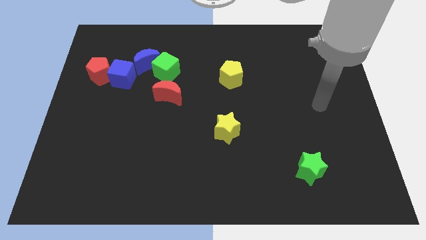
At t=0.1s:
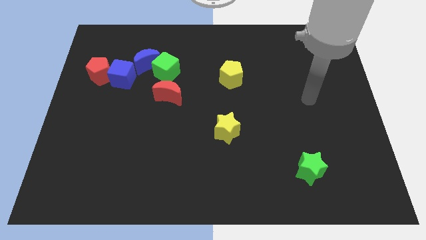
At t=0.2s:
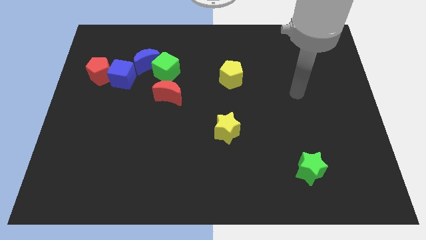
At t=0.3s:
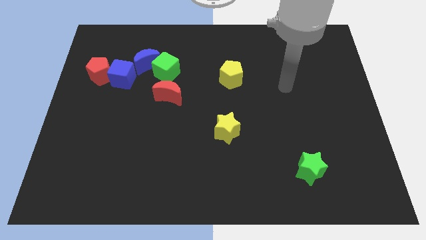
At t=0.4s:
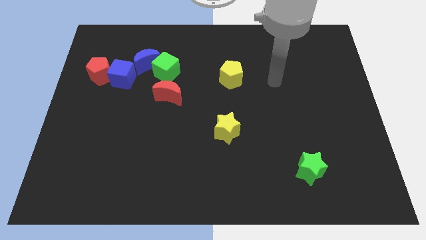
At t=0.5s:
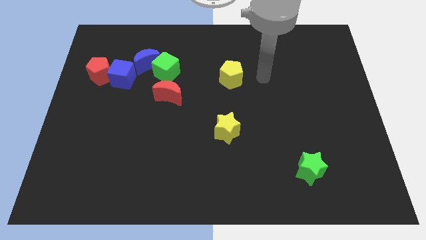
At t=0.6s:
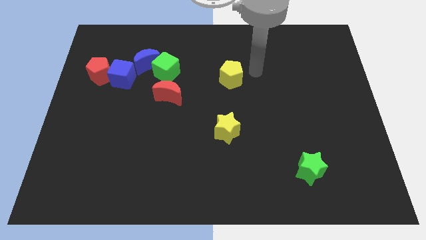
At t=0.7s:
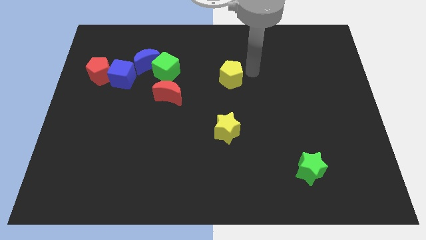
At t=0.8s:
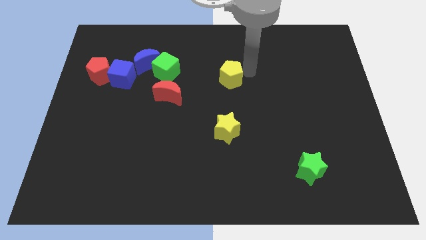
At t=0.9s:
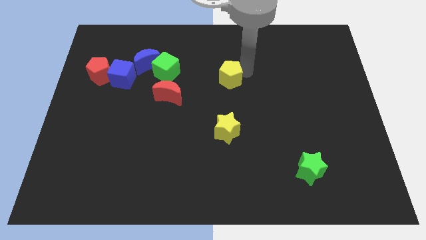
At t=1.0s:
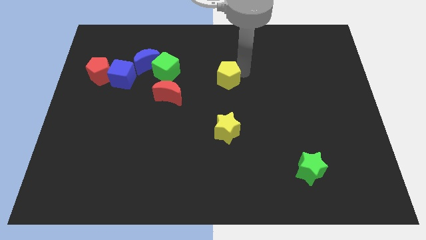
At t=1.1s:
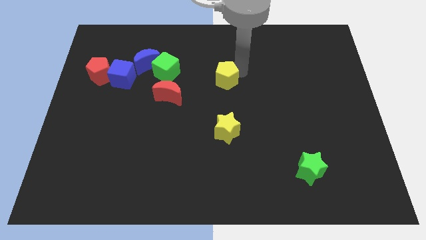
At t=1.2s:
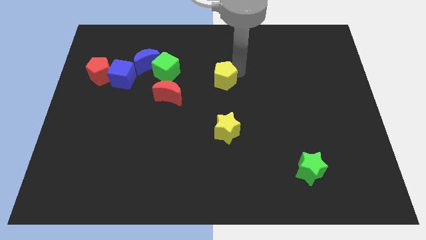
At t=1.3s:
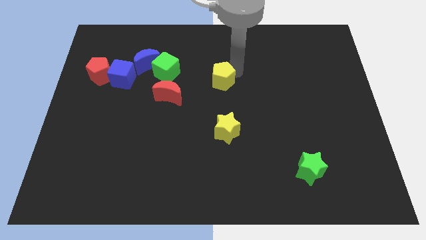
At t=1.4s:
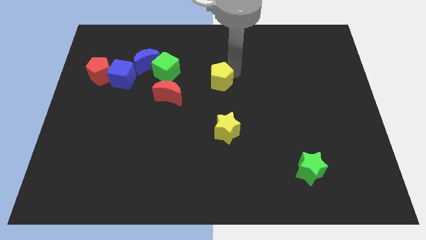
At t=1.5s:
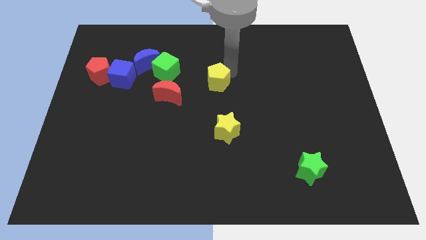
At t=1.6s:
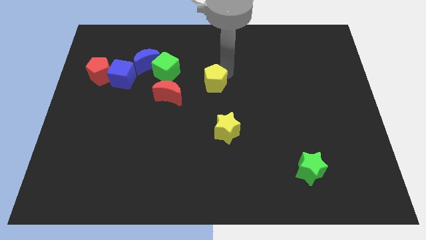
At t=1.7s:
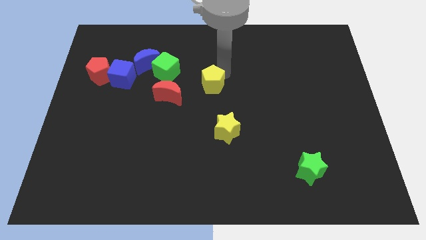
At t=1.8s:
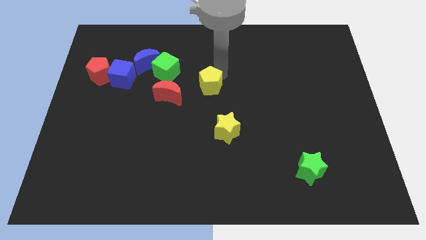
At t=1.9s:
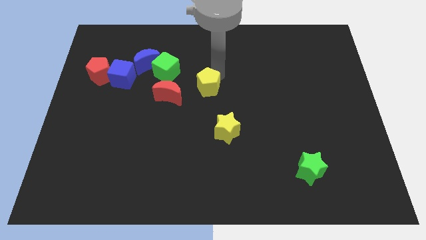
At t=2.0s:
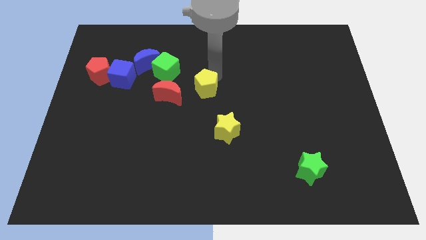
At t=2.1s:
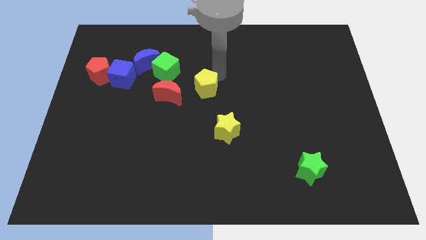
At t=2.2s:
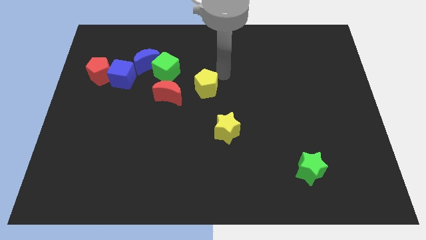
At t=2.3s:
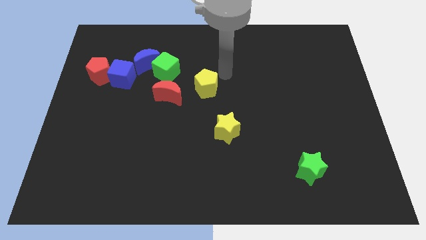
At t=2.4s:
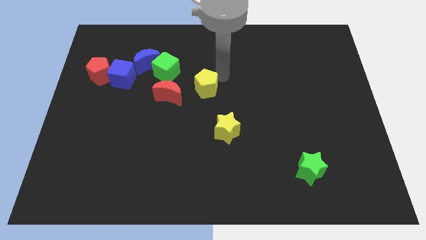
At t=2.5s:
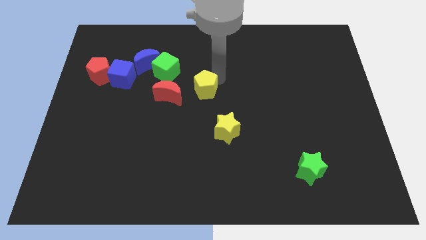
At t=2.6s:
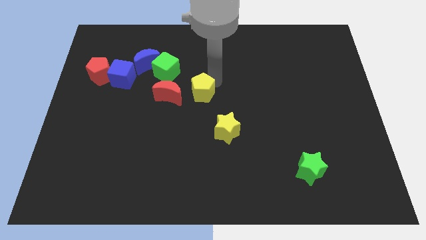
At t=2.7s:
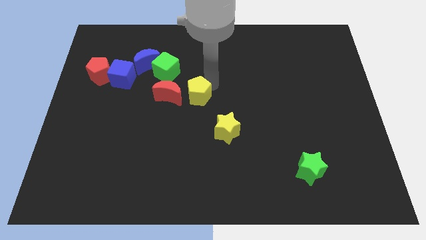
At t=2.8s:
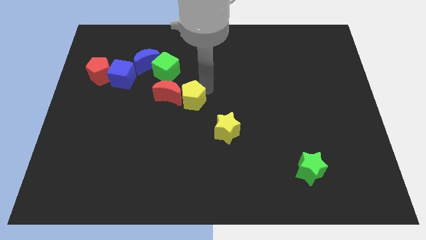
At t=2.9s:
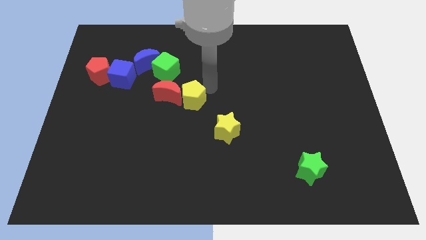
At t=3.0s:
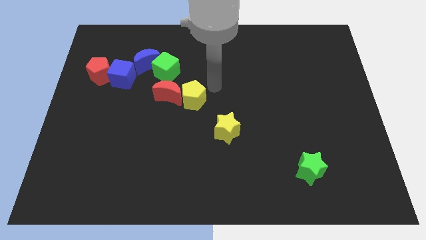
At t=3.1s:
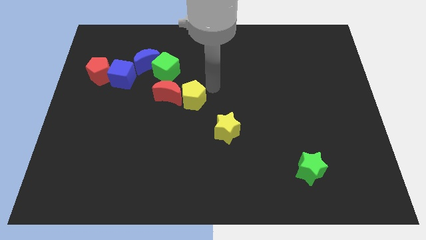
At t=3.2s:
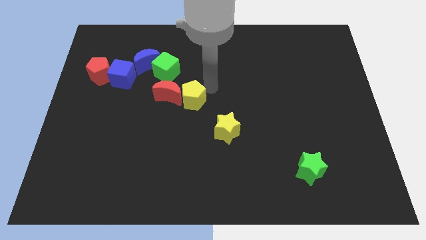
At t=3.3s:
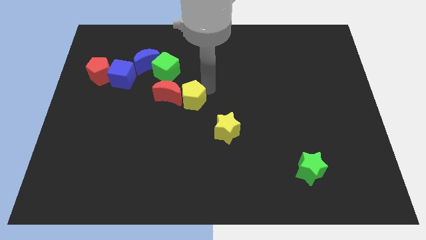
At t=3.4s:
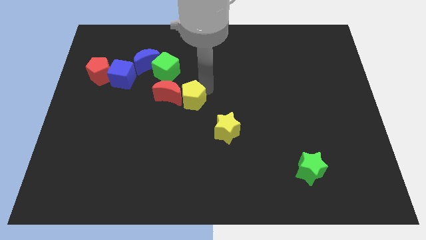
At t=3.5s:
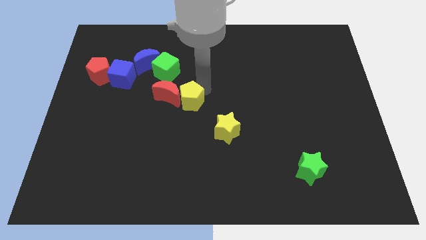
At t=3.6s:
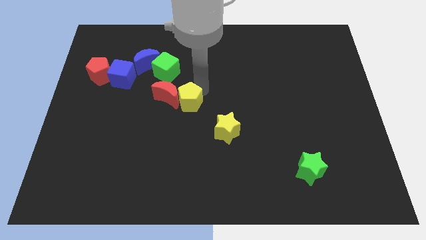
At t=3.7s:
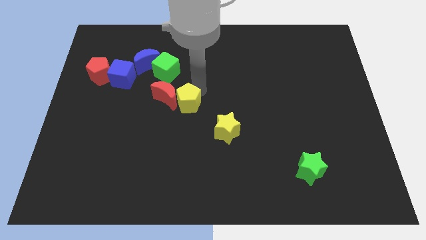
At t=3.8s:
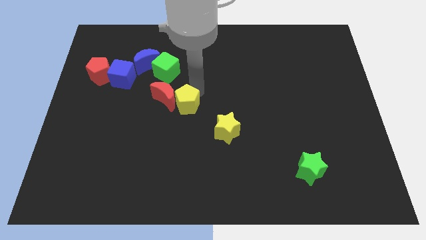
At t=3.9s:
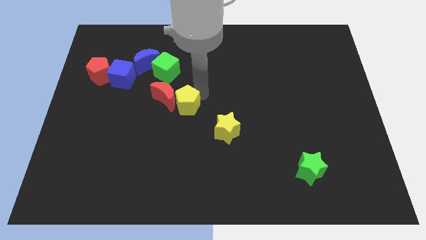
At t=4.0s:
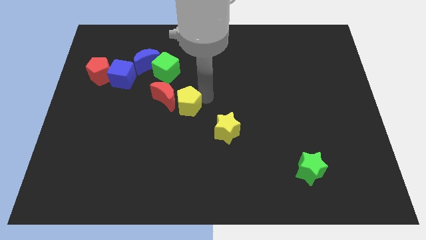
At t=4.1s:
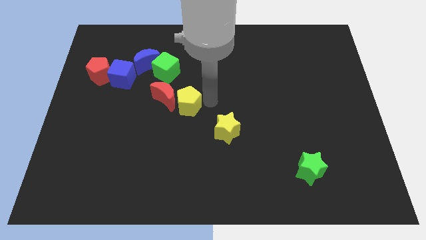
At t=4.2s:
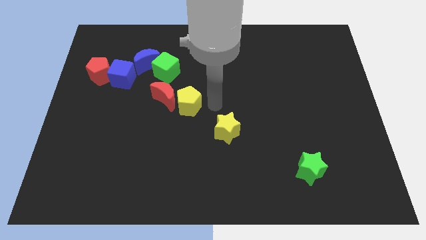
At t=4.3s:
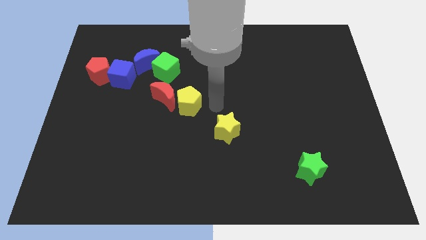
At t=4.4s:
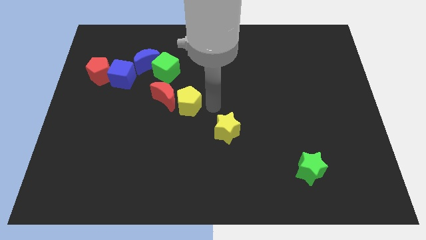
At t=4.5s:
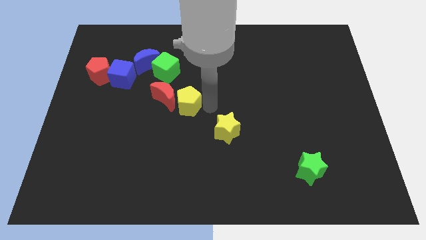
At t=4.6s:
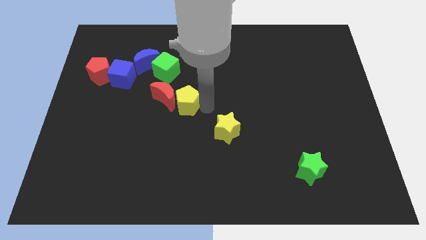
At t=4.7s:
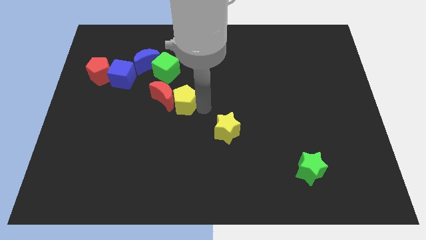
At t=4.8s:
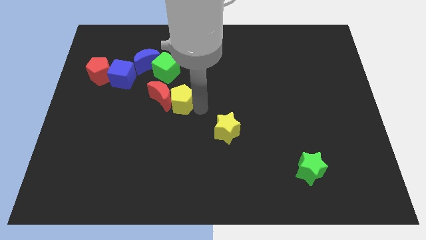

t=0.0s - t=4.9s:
move the yellow pentagon to the bottom side of the green cube

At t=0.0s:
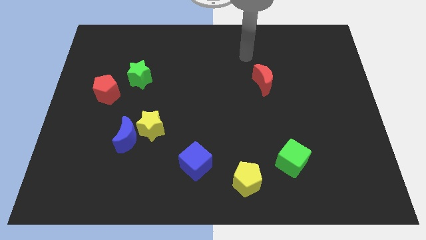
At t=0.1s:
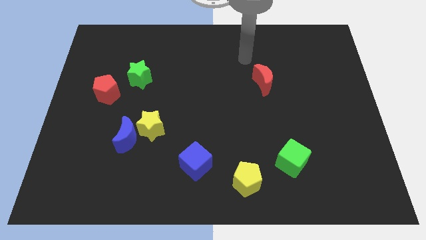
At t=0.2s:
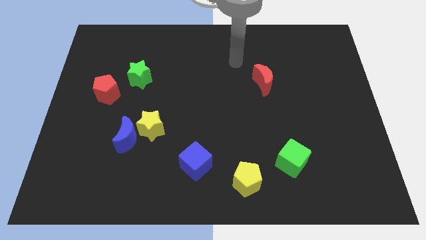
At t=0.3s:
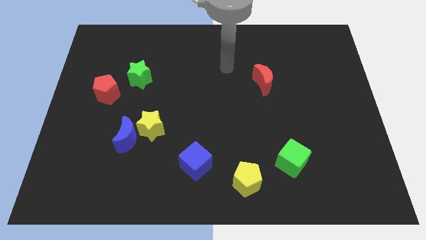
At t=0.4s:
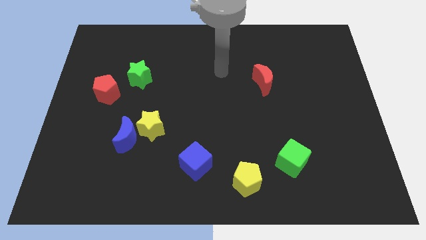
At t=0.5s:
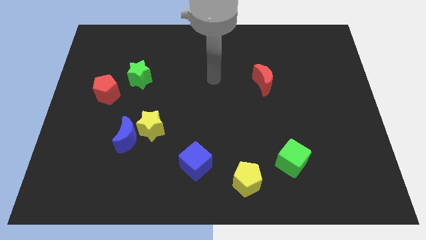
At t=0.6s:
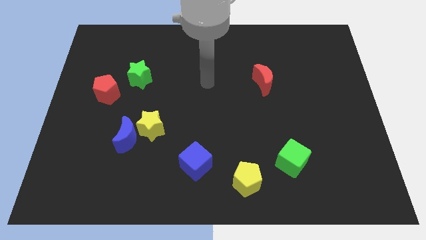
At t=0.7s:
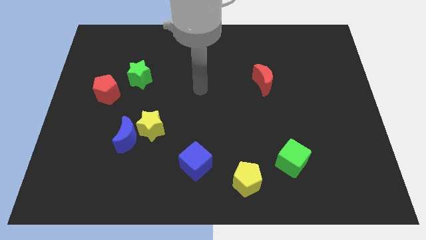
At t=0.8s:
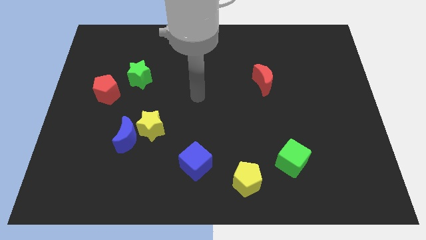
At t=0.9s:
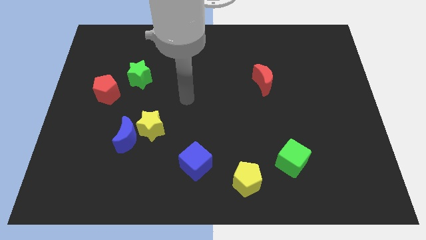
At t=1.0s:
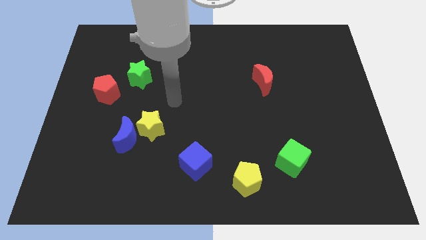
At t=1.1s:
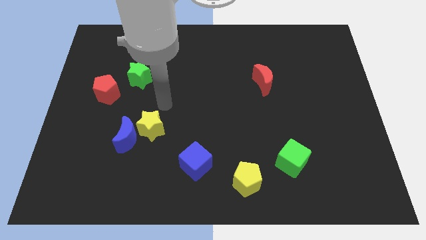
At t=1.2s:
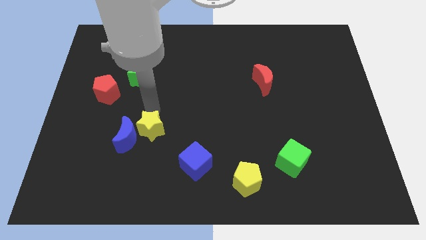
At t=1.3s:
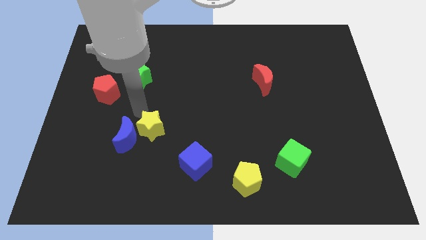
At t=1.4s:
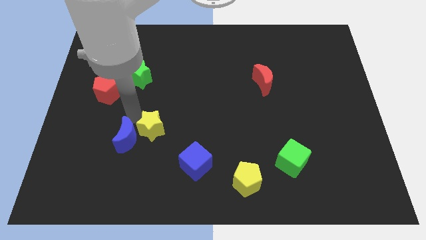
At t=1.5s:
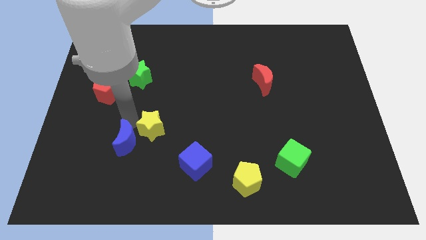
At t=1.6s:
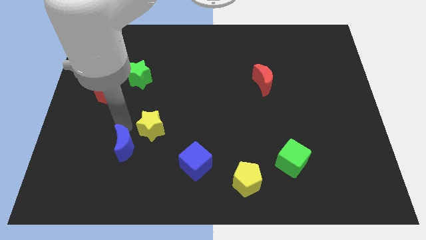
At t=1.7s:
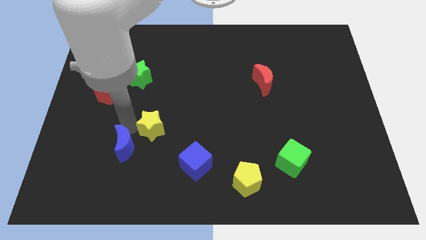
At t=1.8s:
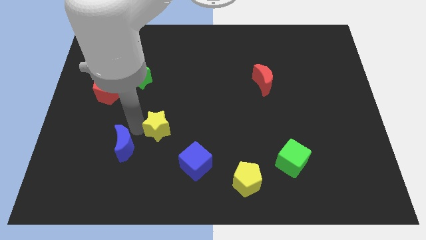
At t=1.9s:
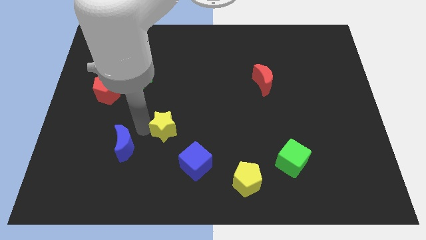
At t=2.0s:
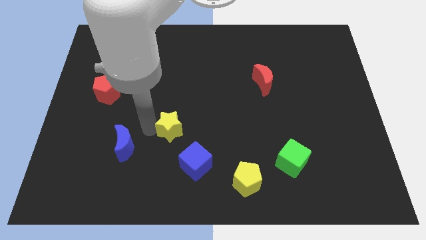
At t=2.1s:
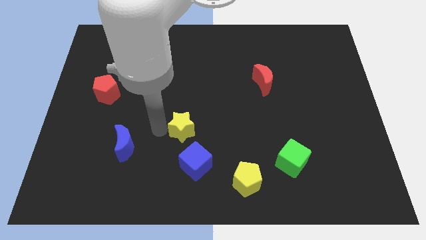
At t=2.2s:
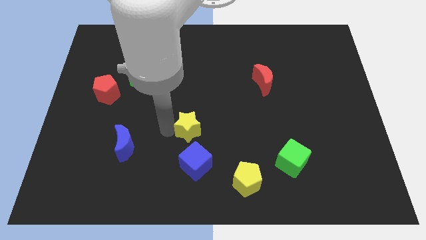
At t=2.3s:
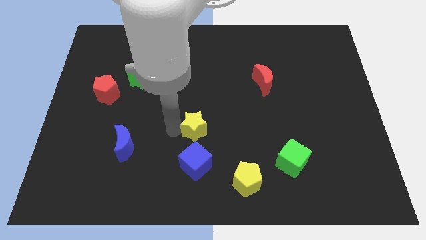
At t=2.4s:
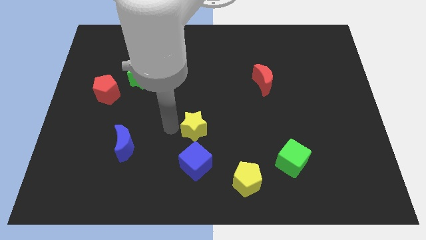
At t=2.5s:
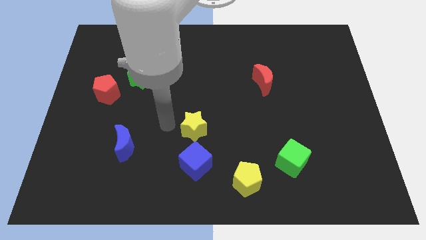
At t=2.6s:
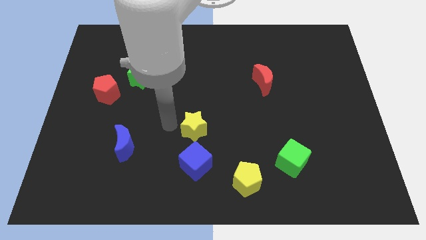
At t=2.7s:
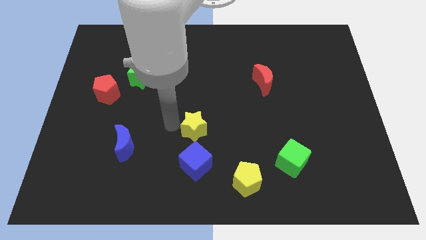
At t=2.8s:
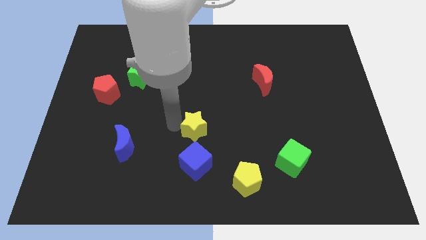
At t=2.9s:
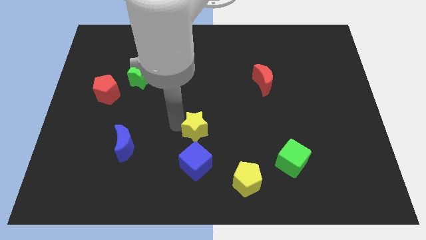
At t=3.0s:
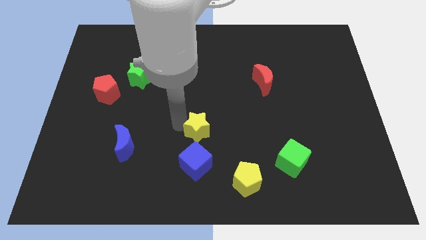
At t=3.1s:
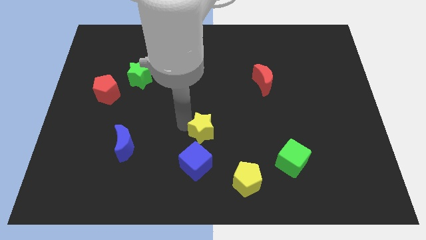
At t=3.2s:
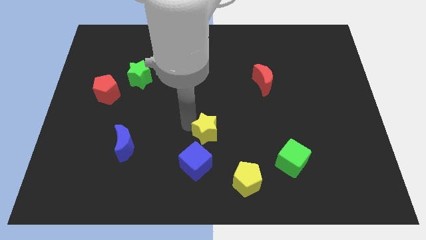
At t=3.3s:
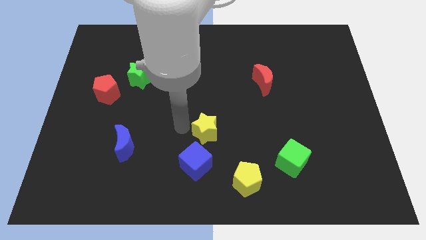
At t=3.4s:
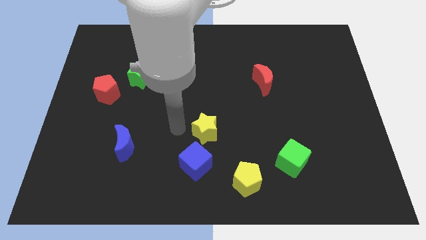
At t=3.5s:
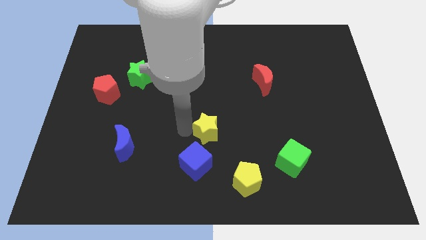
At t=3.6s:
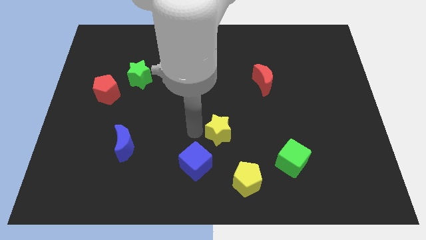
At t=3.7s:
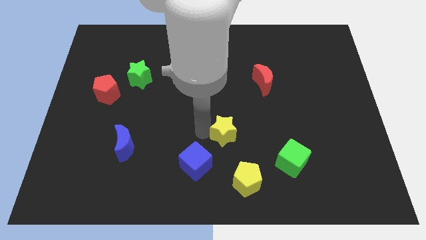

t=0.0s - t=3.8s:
slide the yellow star above the yellow pentagon
